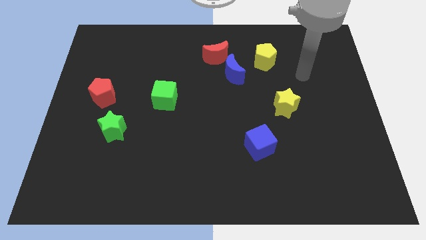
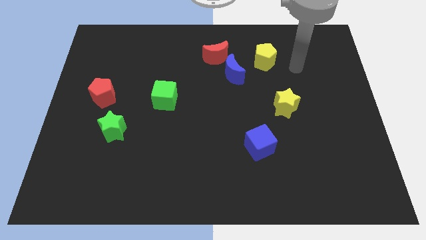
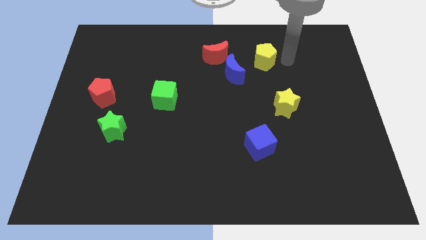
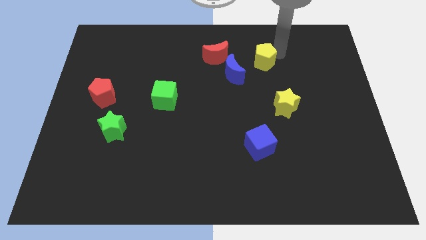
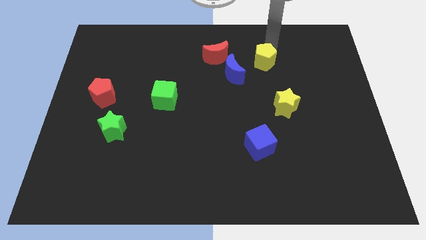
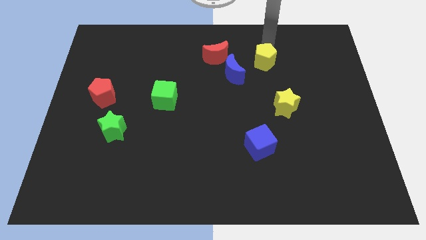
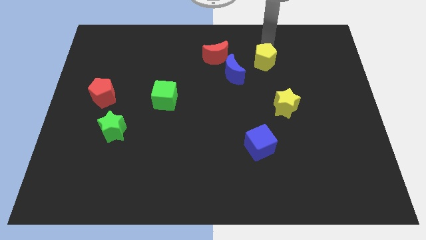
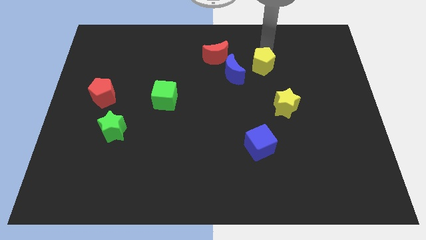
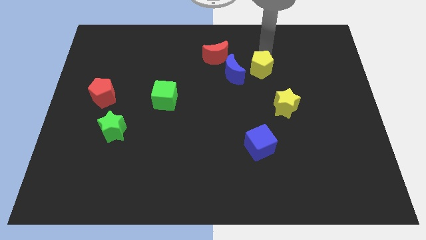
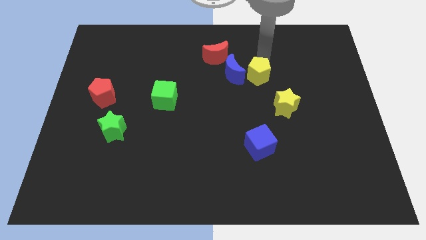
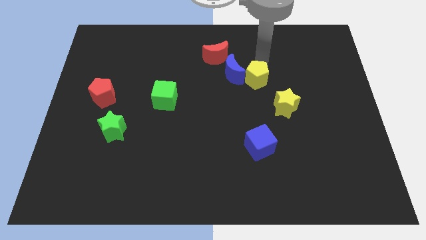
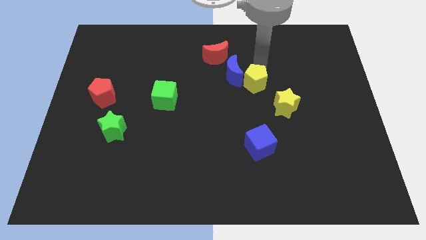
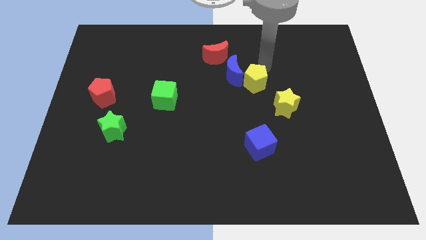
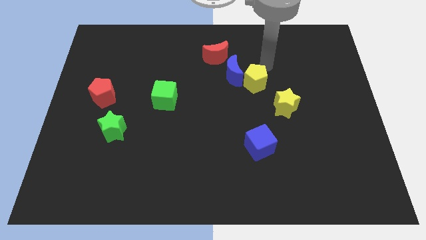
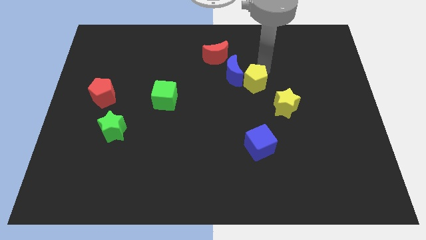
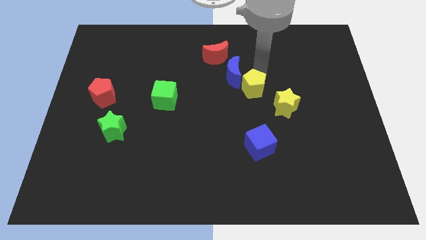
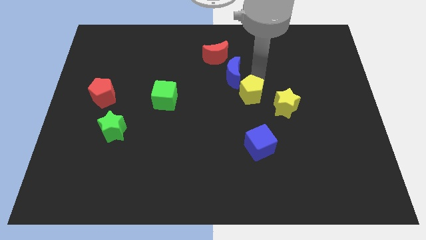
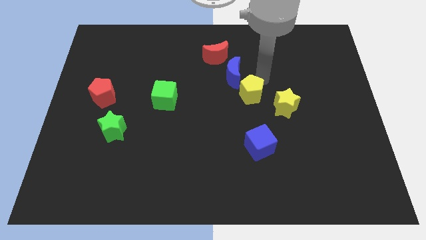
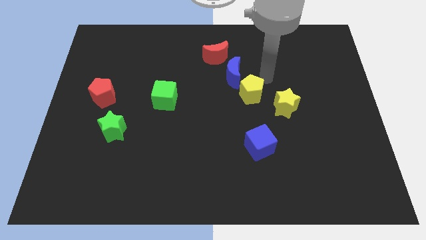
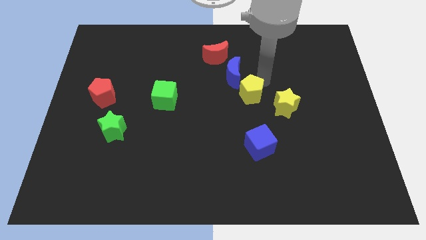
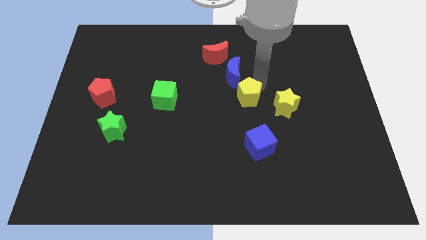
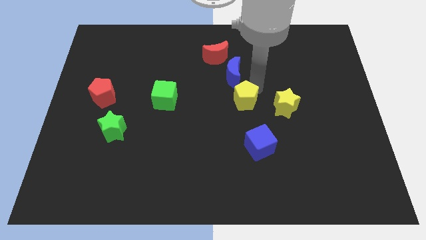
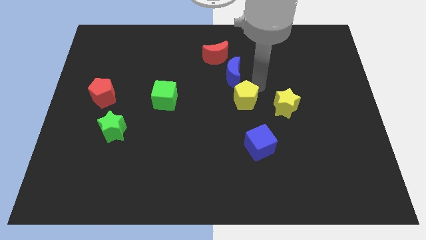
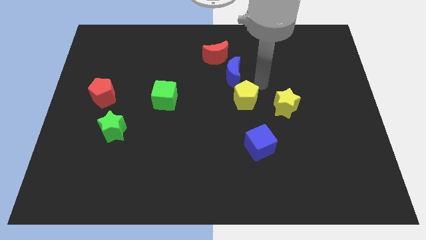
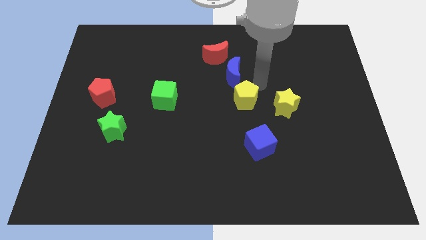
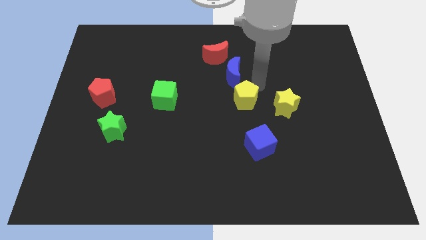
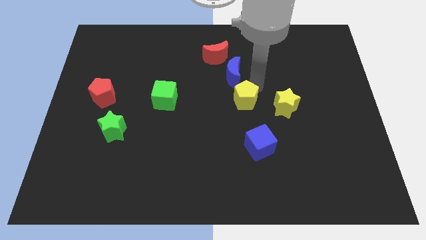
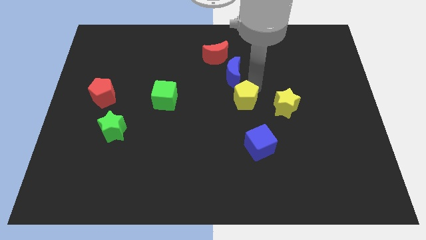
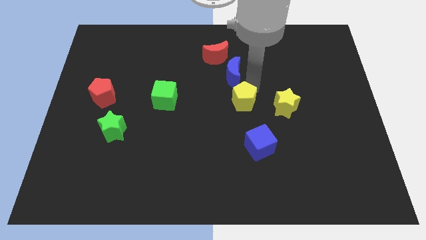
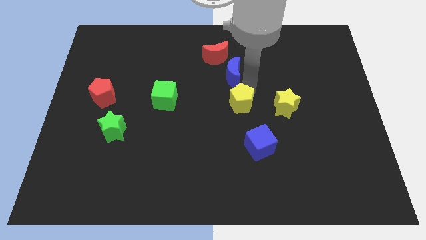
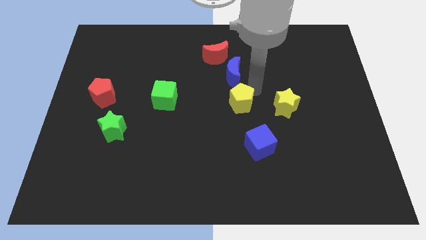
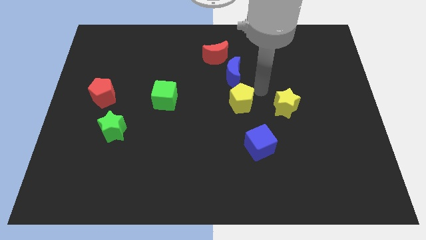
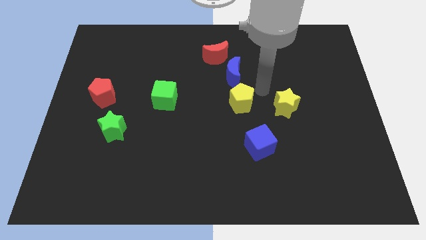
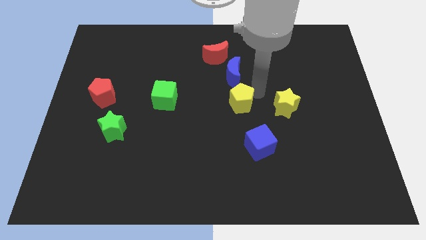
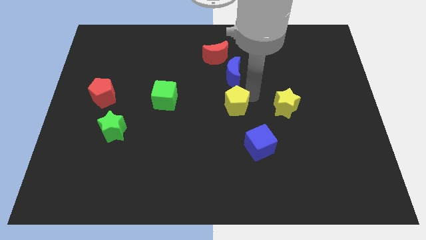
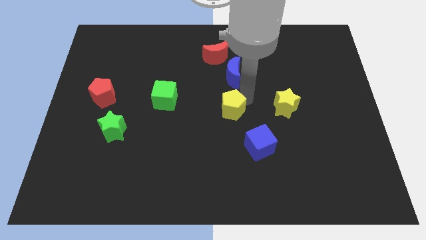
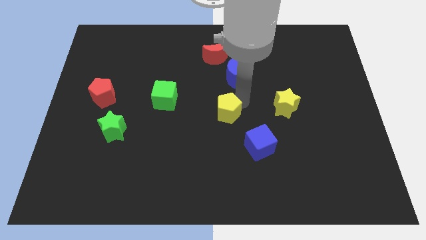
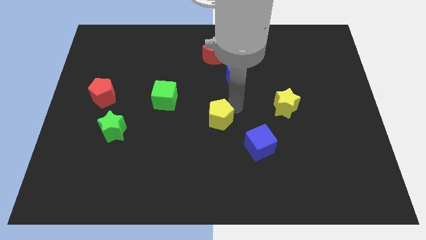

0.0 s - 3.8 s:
slide the yellow pentagon downwards and to the left diagonally

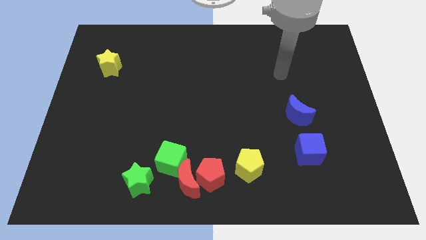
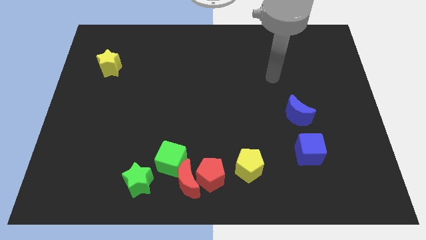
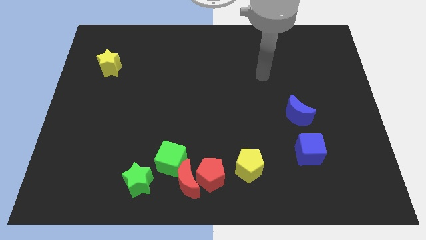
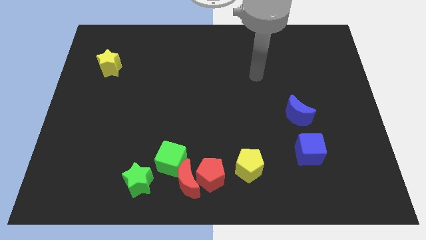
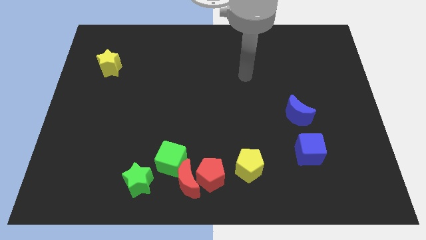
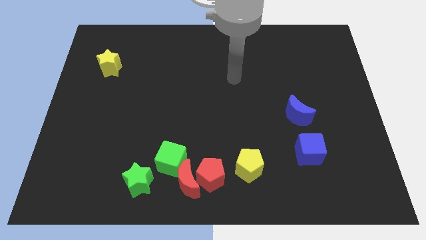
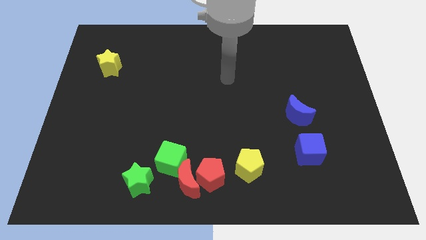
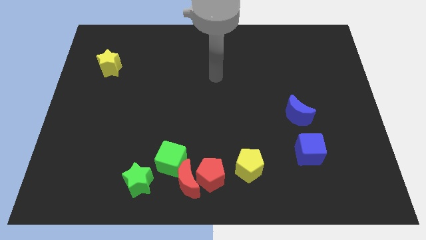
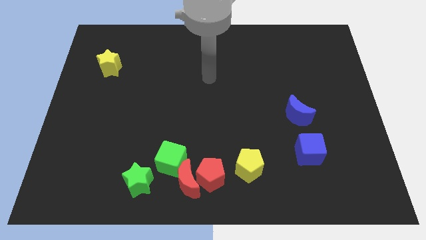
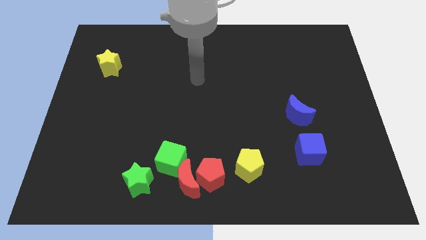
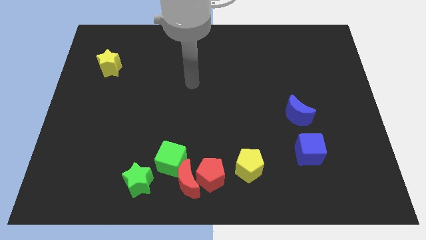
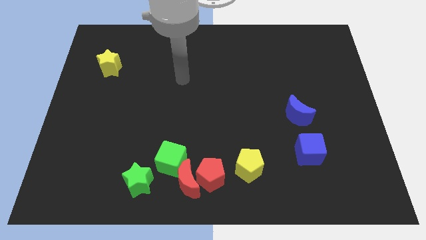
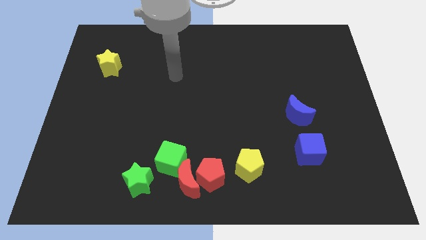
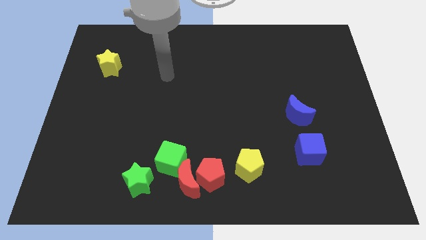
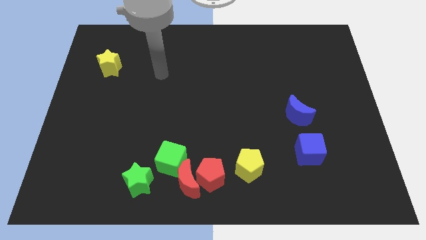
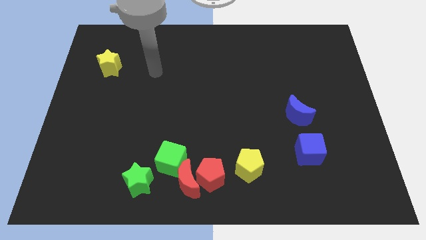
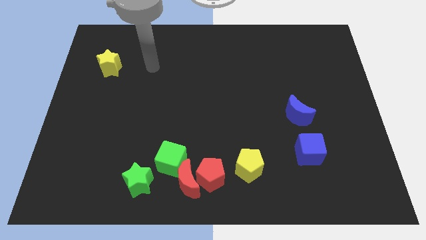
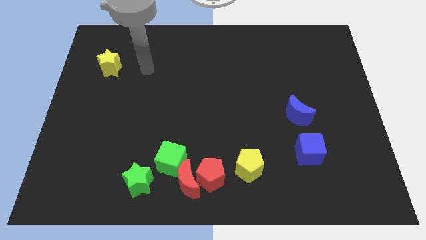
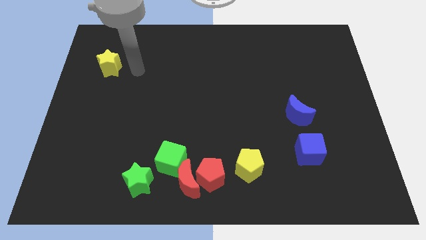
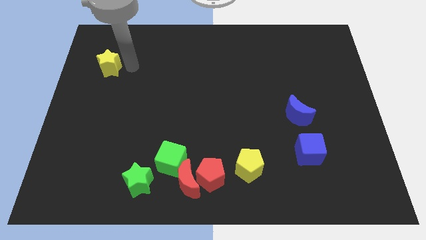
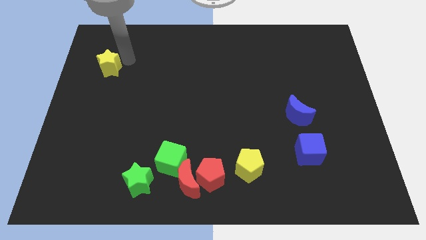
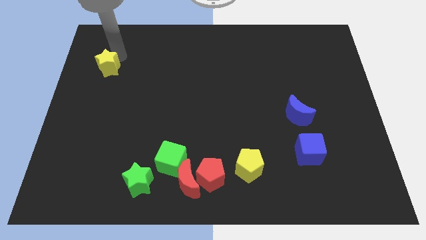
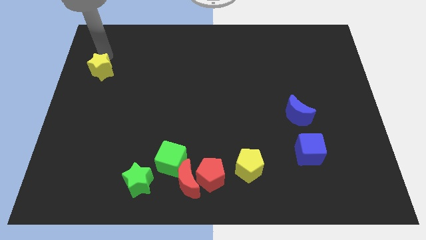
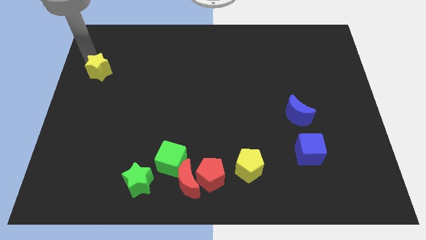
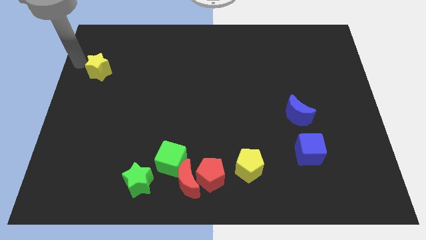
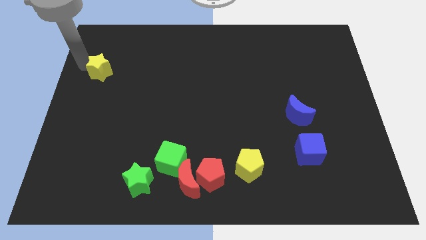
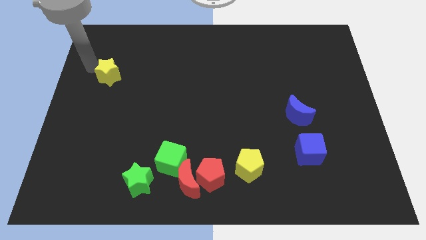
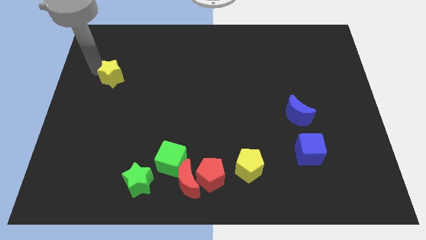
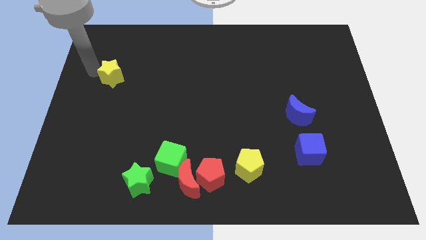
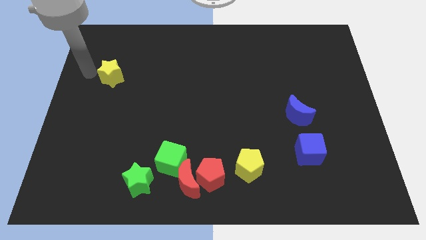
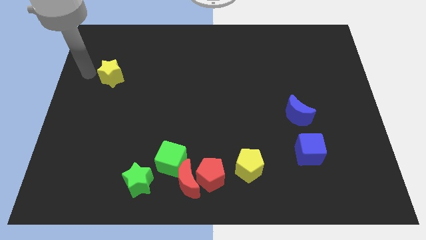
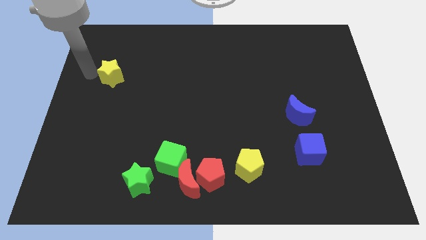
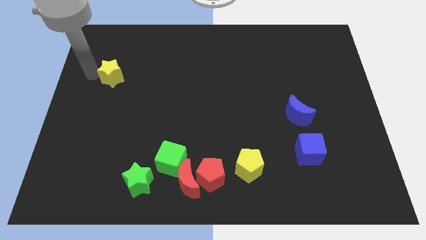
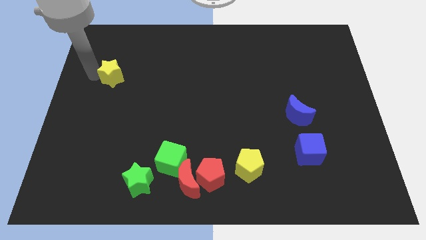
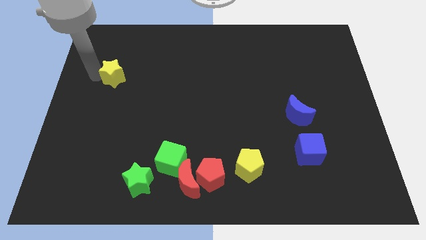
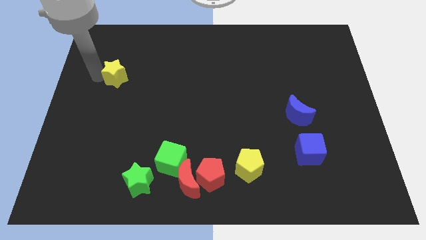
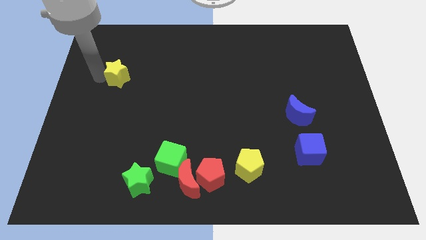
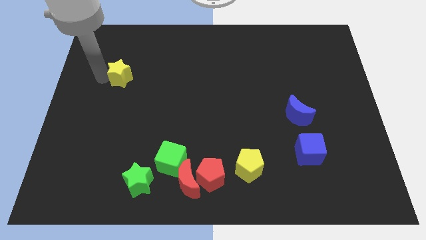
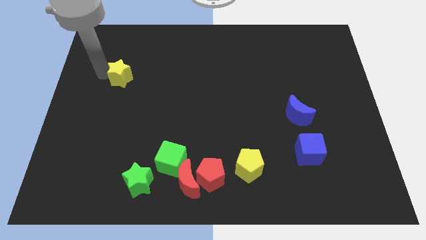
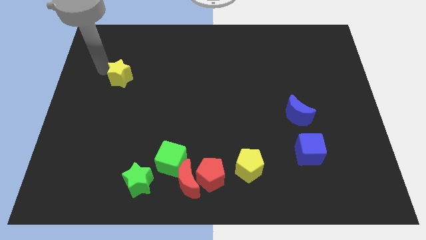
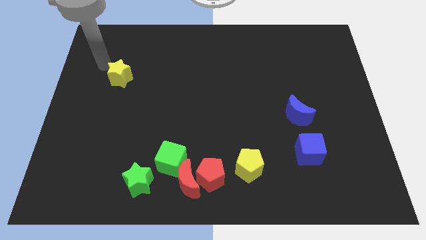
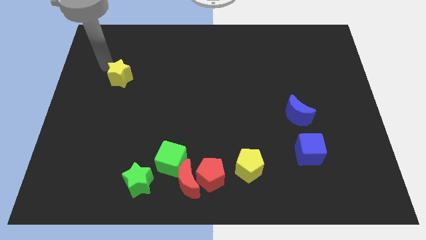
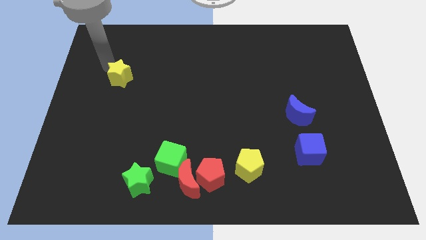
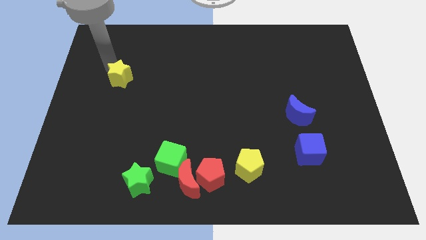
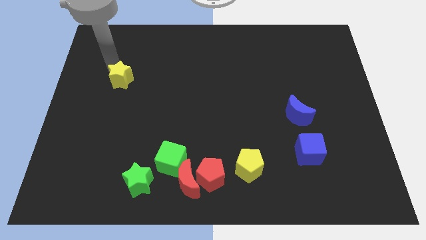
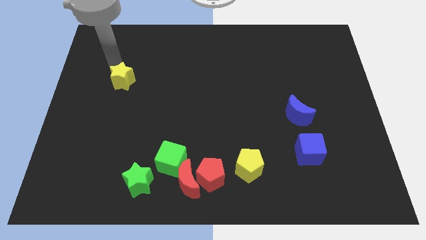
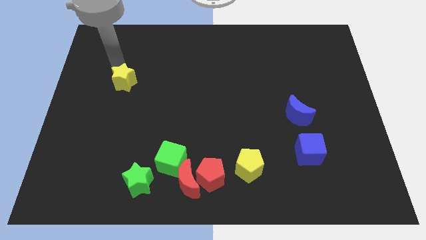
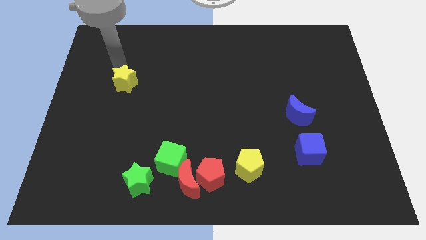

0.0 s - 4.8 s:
slide the yellow star diagonally downwards and to the right a little bit
